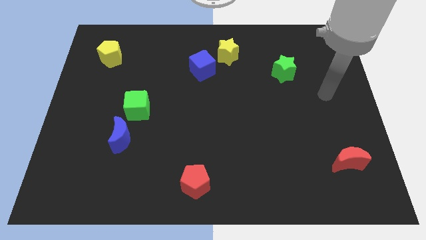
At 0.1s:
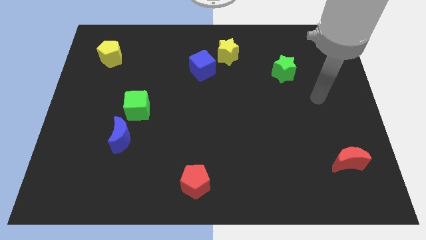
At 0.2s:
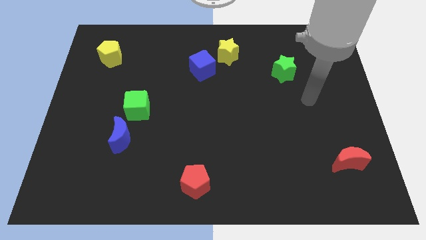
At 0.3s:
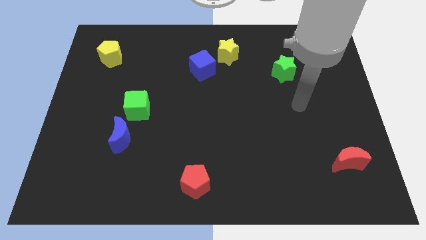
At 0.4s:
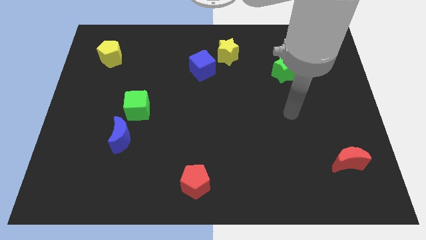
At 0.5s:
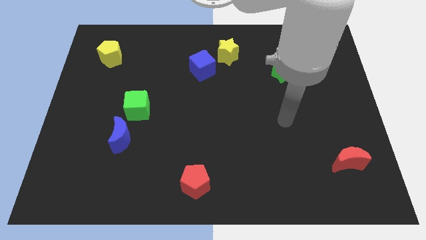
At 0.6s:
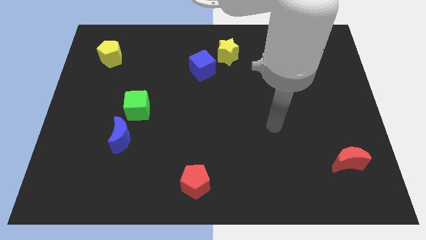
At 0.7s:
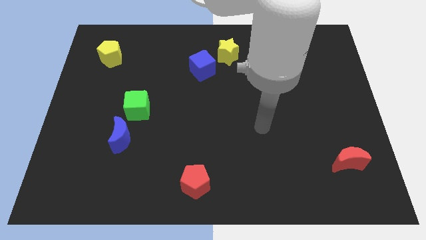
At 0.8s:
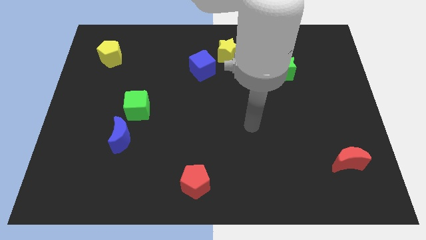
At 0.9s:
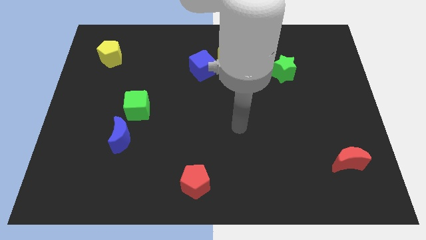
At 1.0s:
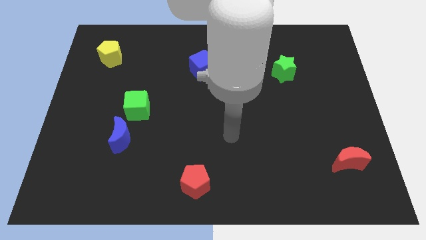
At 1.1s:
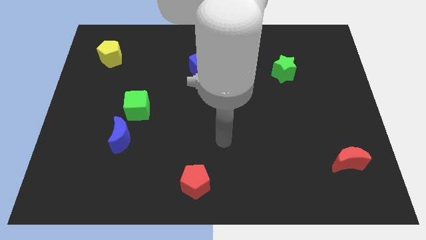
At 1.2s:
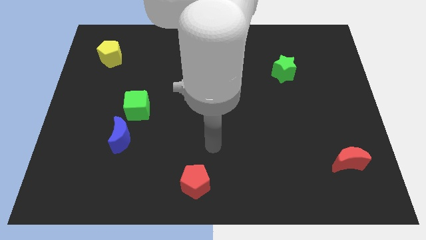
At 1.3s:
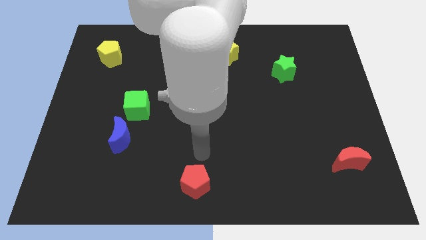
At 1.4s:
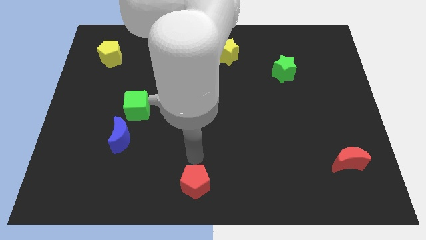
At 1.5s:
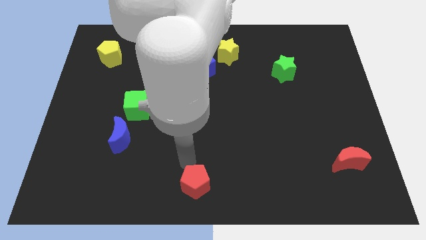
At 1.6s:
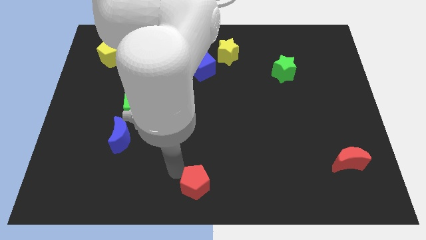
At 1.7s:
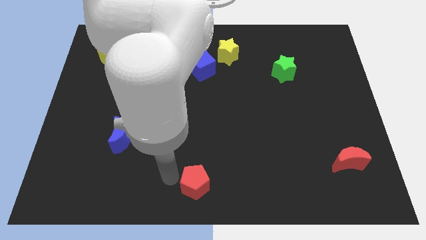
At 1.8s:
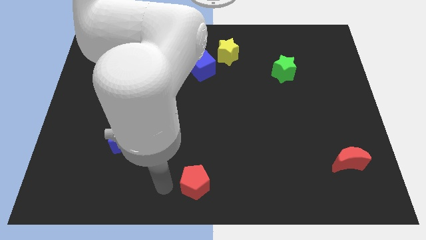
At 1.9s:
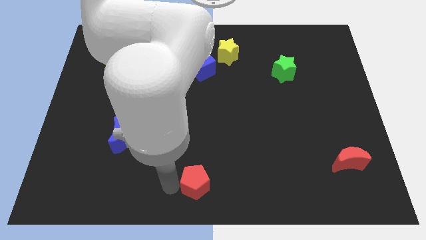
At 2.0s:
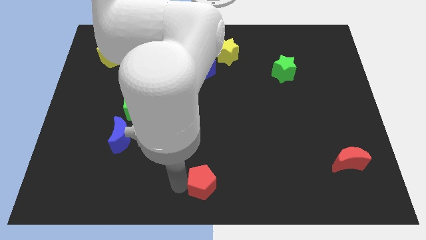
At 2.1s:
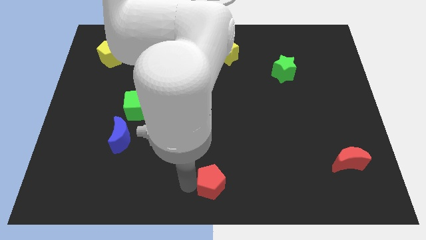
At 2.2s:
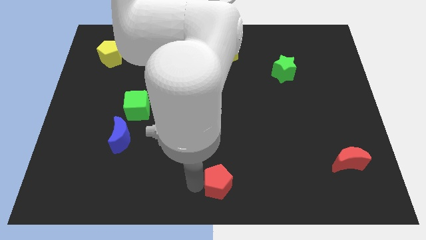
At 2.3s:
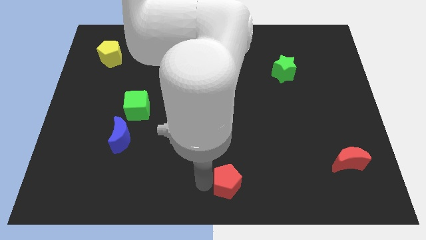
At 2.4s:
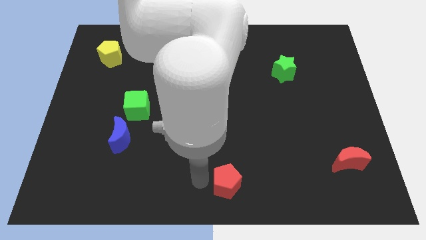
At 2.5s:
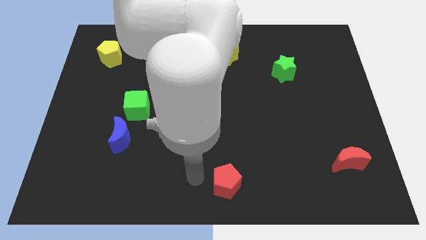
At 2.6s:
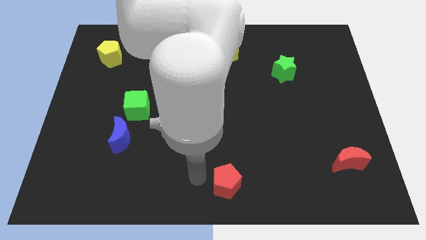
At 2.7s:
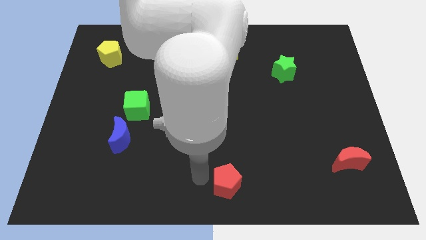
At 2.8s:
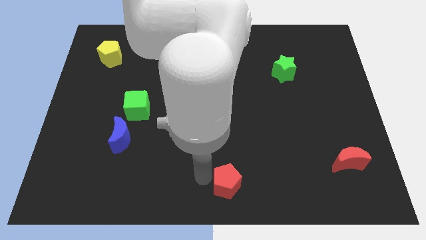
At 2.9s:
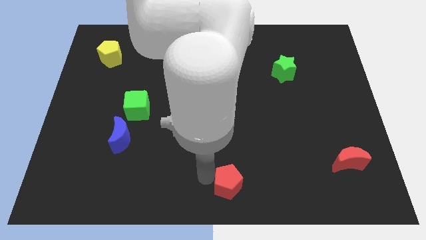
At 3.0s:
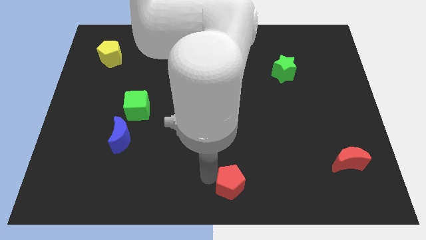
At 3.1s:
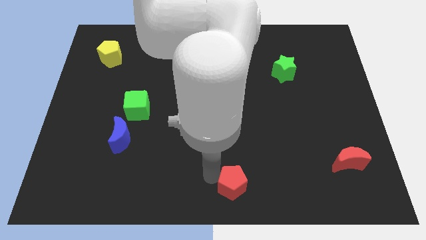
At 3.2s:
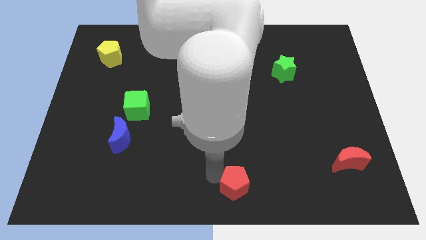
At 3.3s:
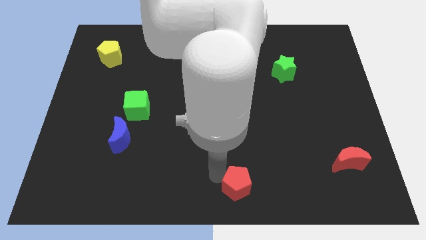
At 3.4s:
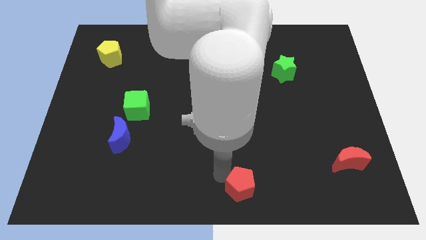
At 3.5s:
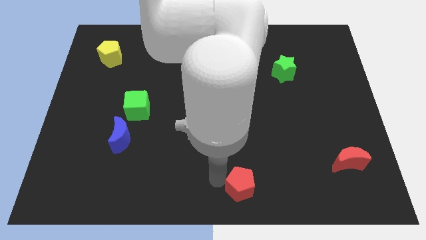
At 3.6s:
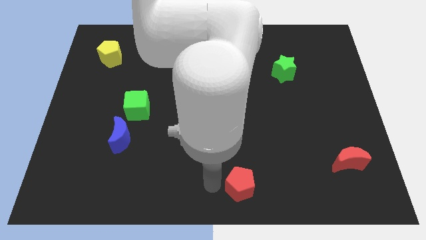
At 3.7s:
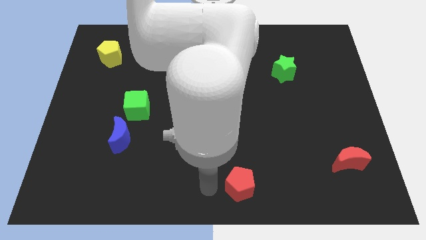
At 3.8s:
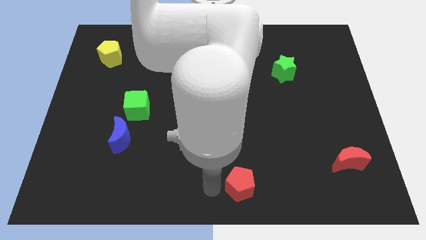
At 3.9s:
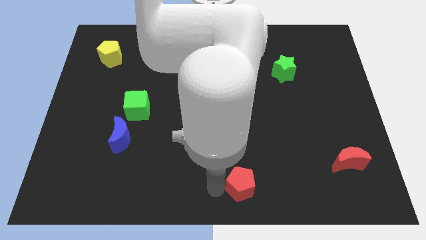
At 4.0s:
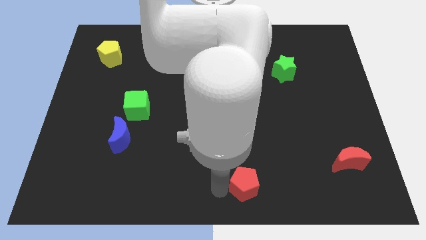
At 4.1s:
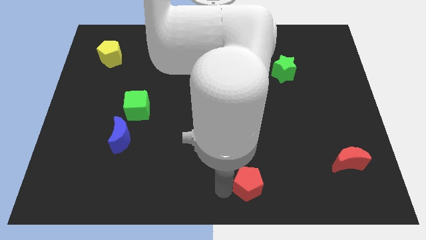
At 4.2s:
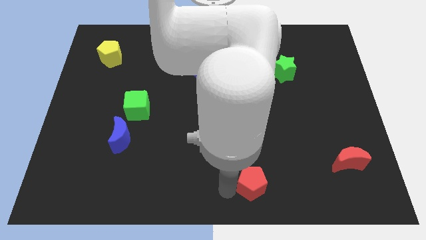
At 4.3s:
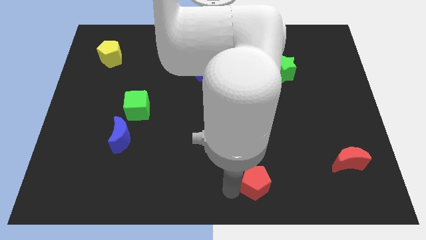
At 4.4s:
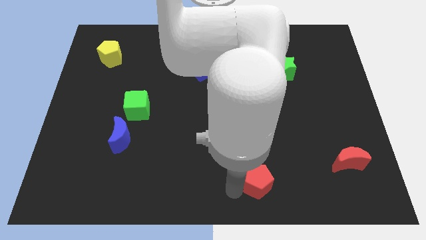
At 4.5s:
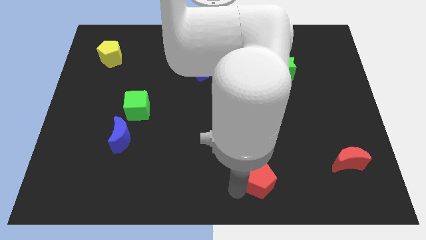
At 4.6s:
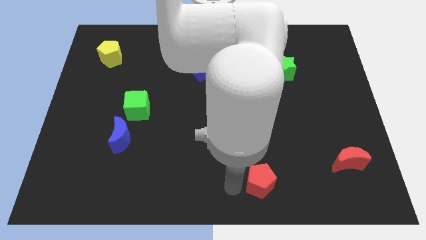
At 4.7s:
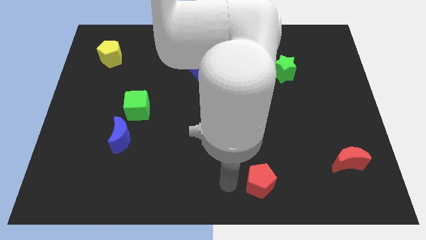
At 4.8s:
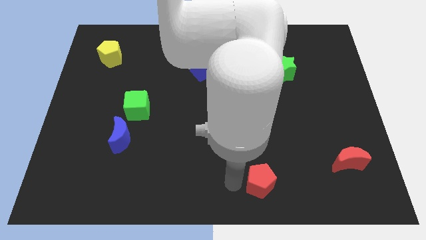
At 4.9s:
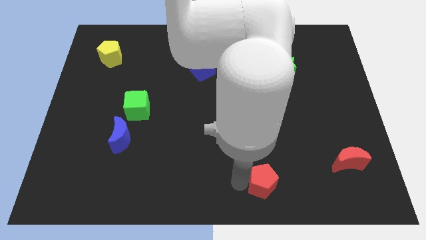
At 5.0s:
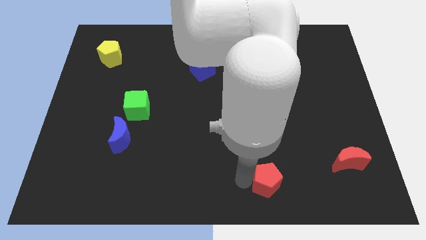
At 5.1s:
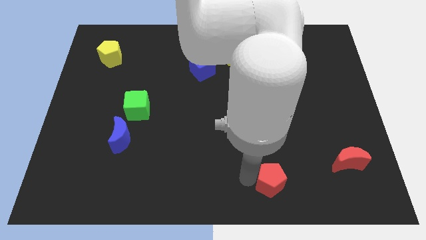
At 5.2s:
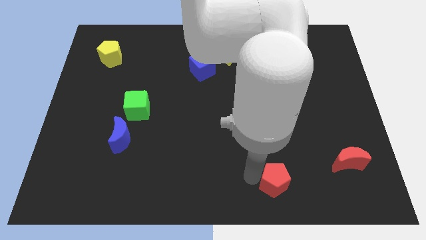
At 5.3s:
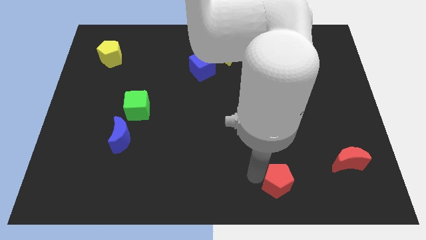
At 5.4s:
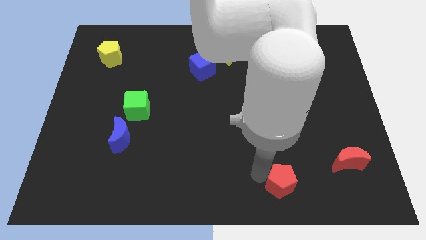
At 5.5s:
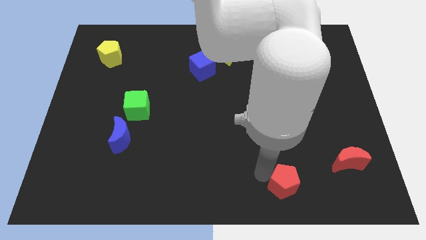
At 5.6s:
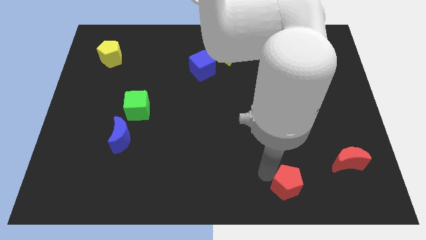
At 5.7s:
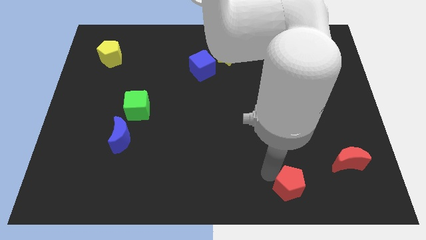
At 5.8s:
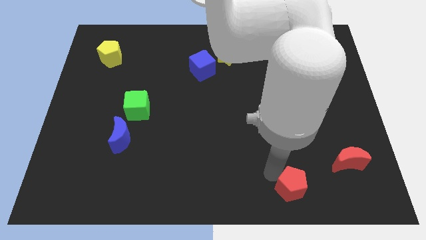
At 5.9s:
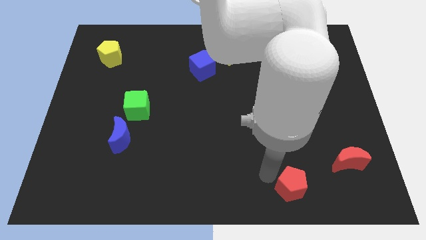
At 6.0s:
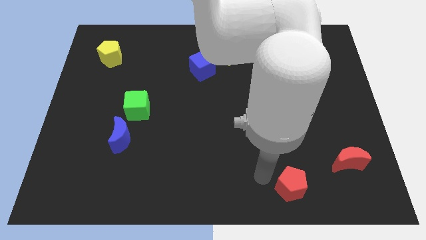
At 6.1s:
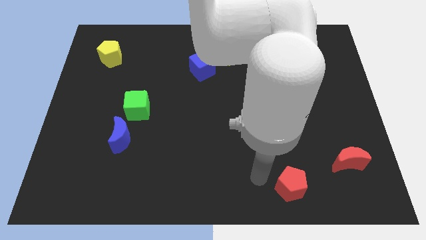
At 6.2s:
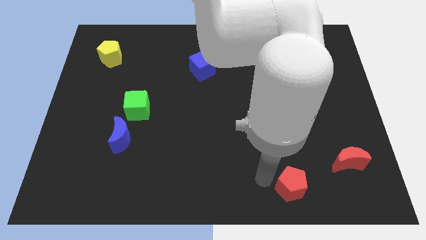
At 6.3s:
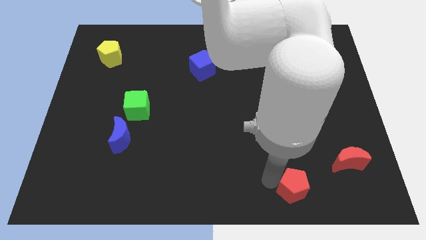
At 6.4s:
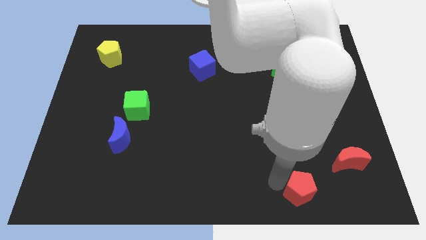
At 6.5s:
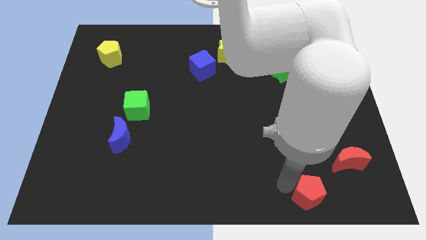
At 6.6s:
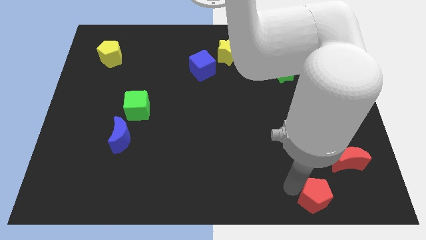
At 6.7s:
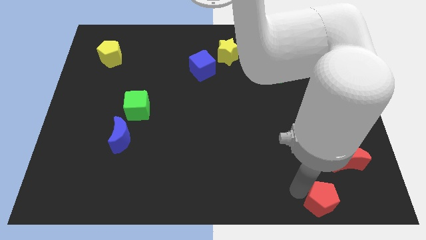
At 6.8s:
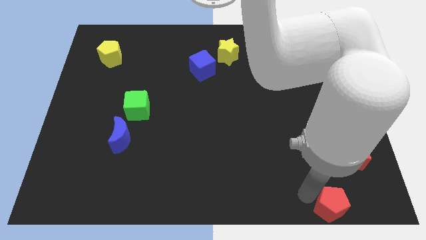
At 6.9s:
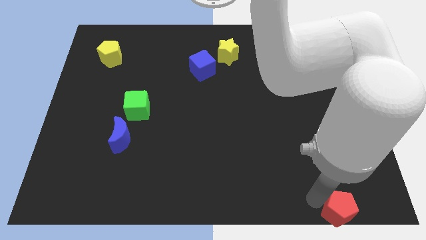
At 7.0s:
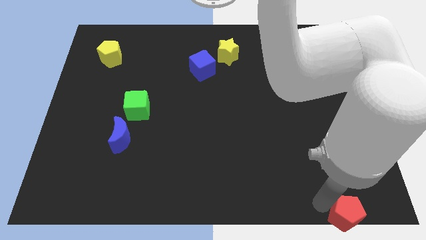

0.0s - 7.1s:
slide the red pentagon to the lower right corner
